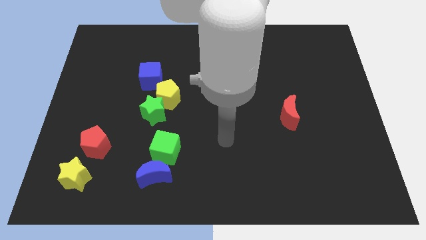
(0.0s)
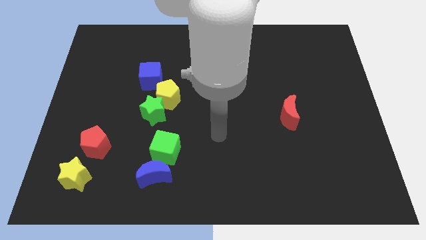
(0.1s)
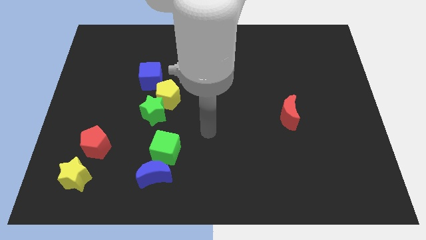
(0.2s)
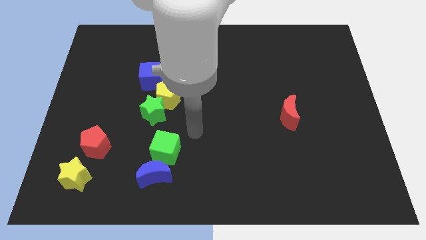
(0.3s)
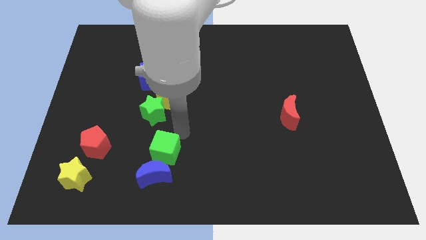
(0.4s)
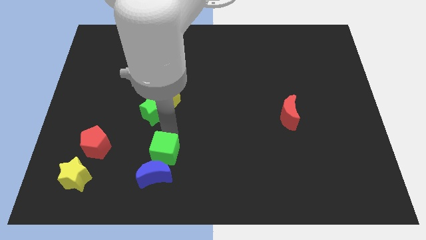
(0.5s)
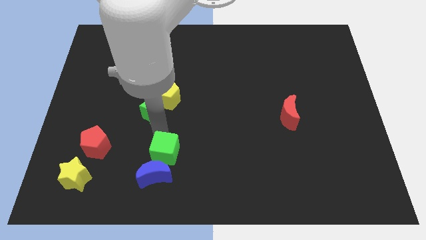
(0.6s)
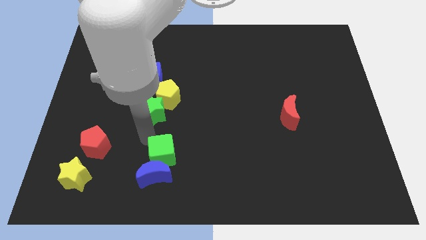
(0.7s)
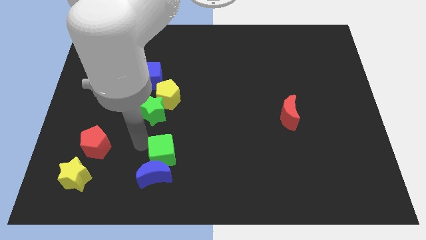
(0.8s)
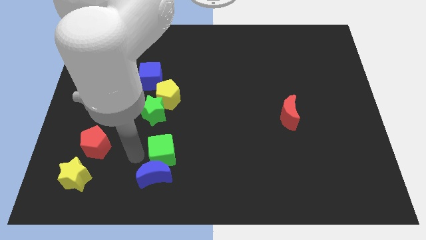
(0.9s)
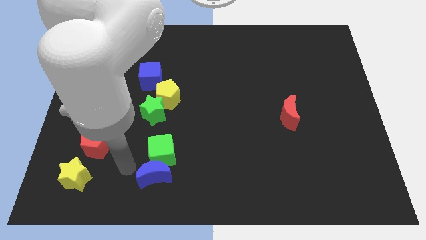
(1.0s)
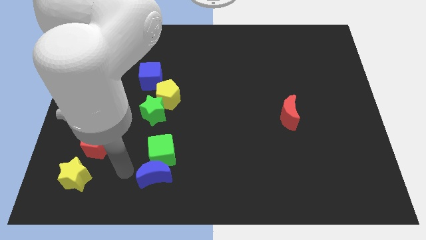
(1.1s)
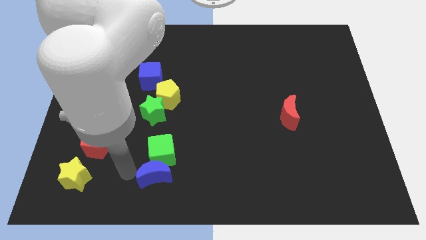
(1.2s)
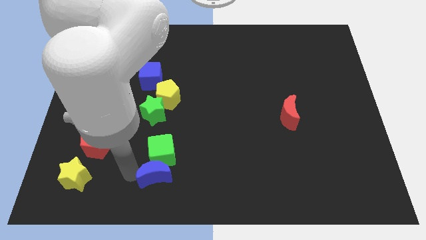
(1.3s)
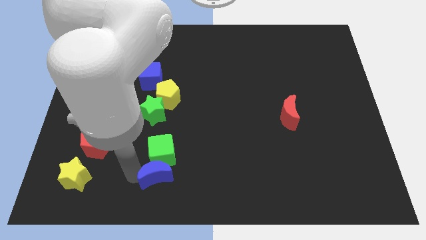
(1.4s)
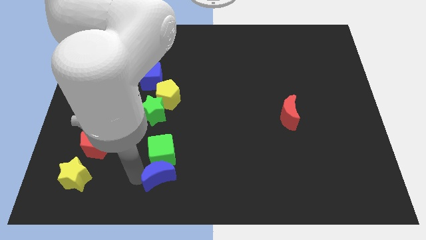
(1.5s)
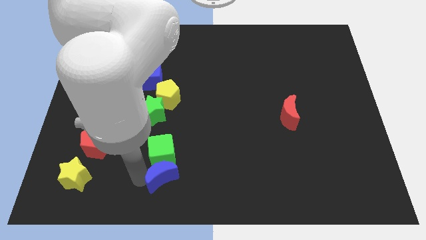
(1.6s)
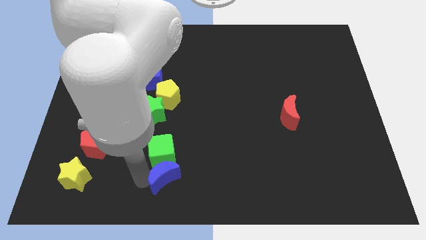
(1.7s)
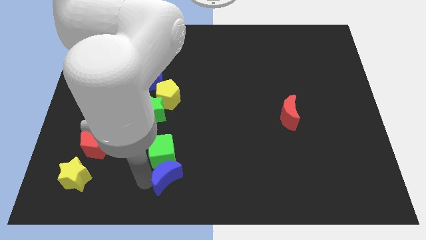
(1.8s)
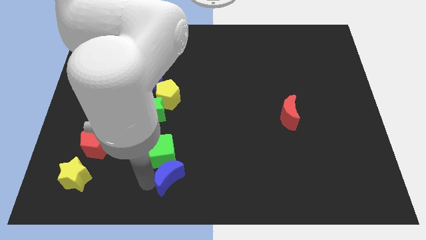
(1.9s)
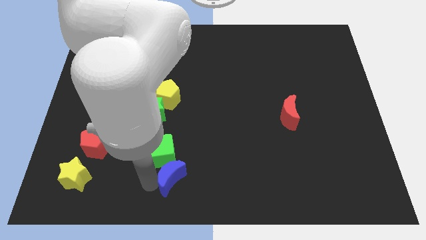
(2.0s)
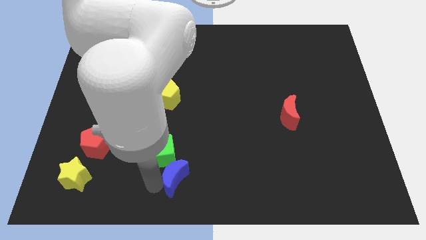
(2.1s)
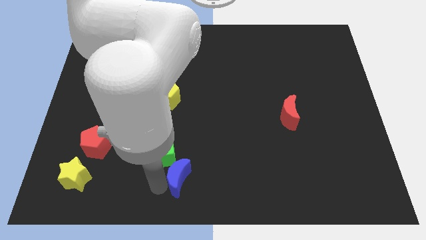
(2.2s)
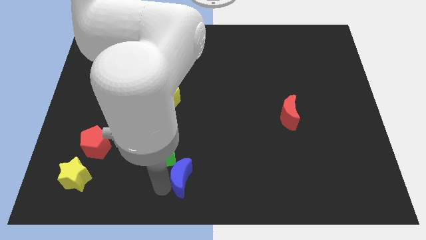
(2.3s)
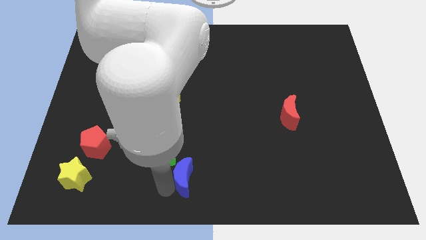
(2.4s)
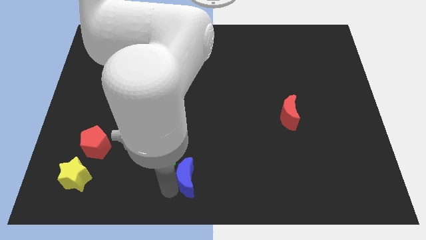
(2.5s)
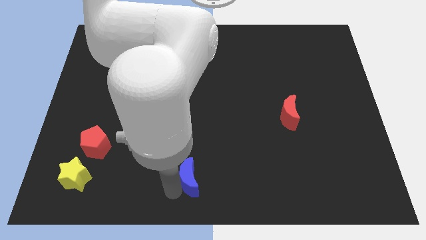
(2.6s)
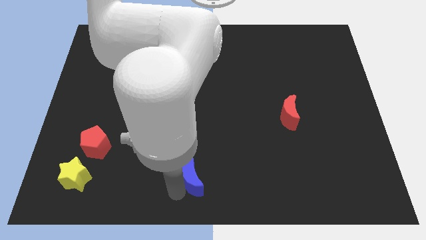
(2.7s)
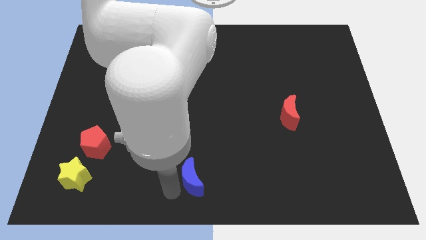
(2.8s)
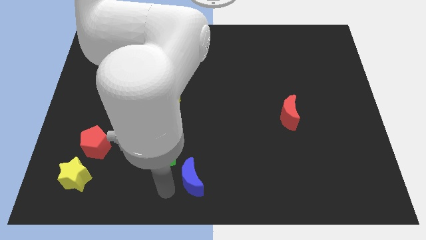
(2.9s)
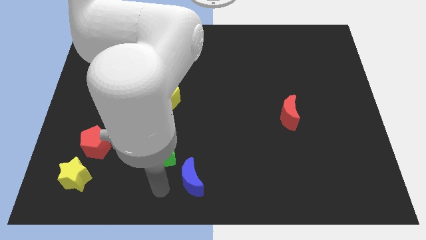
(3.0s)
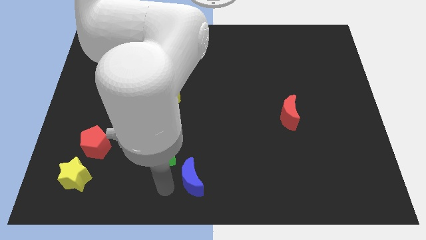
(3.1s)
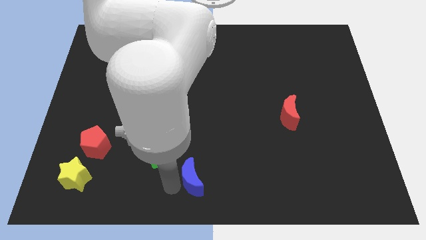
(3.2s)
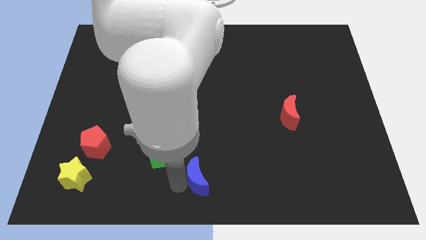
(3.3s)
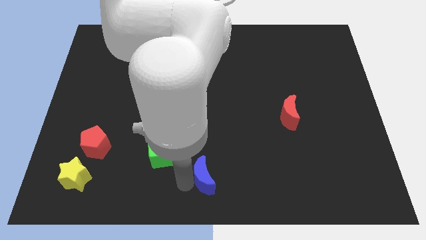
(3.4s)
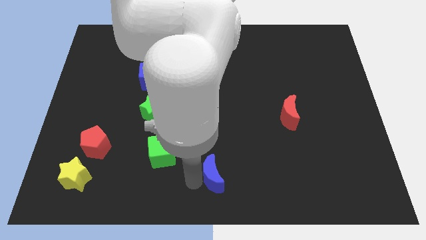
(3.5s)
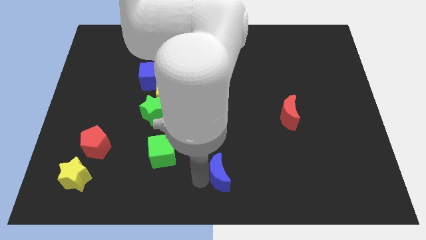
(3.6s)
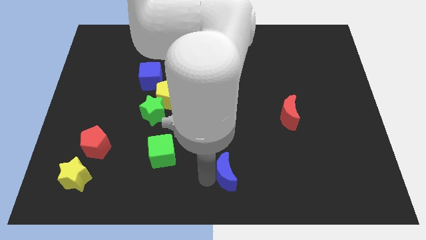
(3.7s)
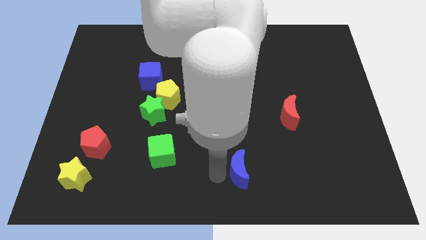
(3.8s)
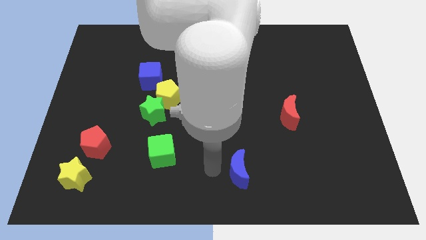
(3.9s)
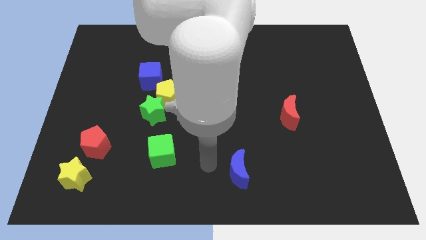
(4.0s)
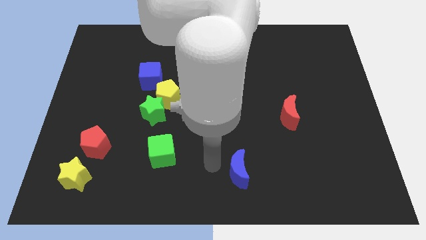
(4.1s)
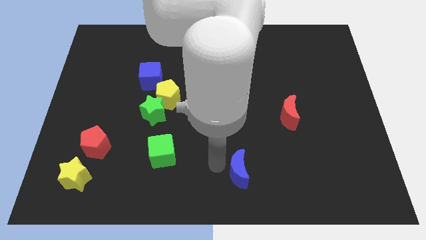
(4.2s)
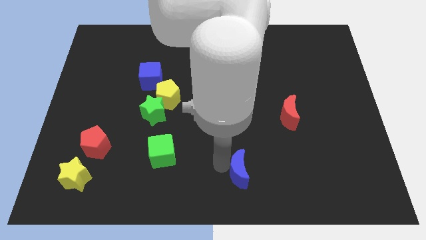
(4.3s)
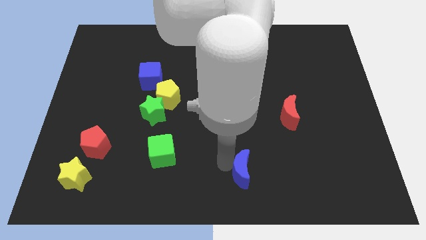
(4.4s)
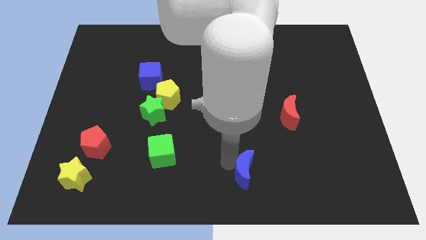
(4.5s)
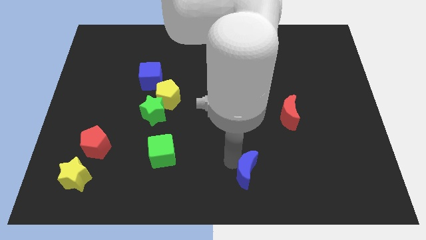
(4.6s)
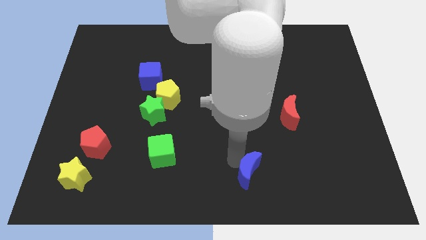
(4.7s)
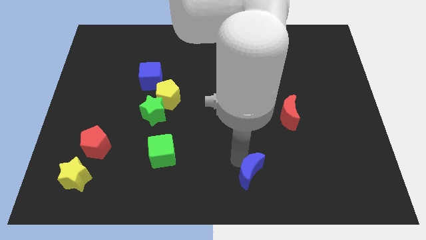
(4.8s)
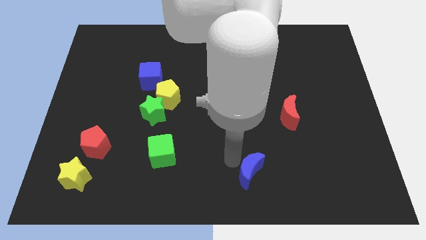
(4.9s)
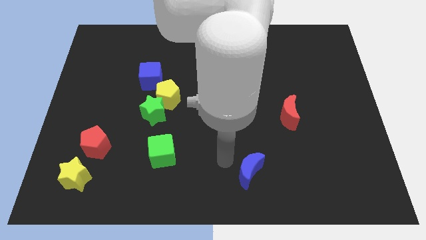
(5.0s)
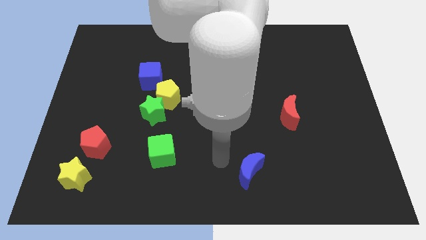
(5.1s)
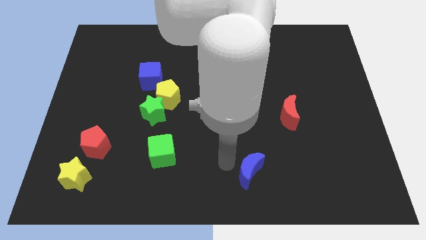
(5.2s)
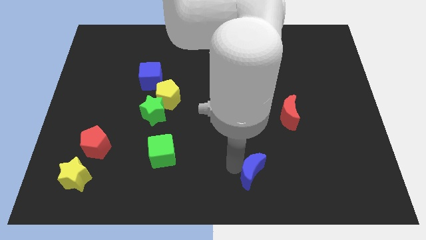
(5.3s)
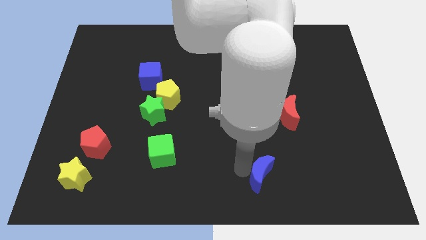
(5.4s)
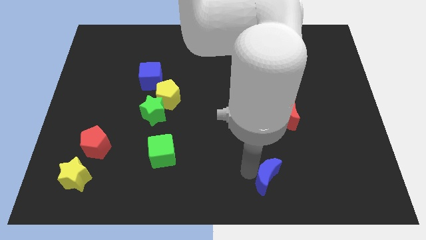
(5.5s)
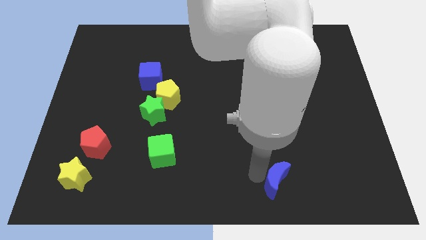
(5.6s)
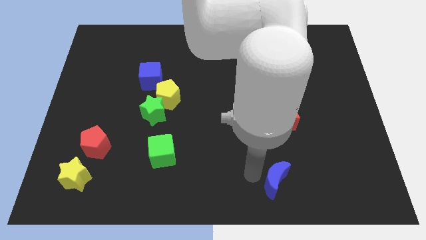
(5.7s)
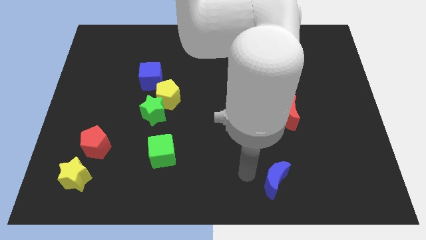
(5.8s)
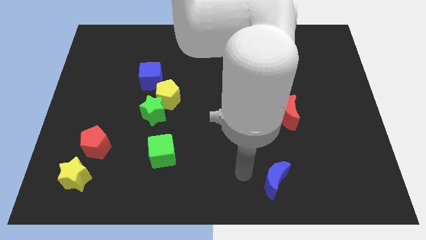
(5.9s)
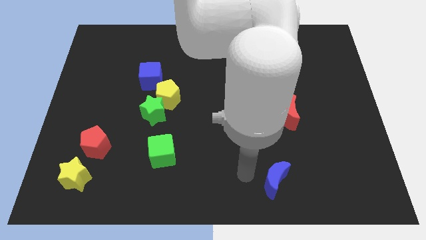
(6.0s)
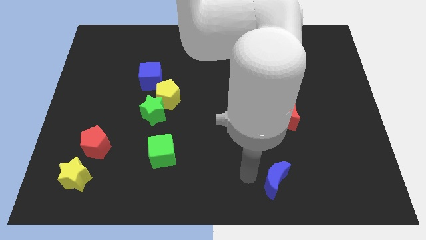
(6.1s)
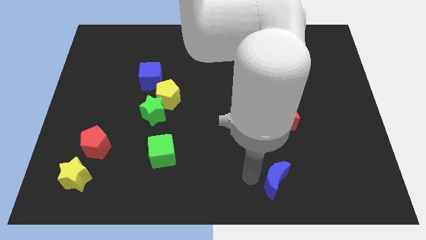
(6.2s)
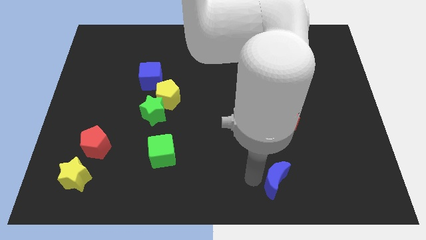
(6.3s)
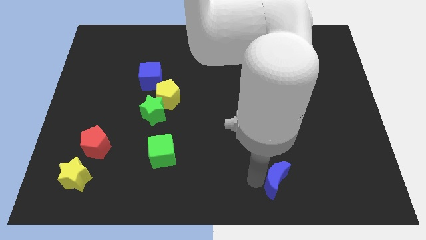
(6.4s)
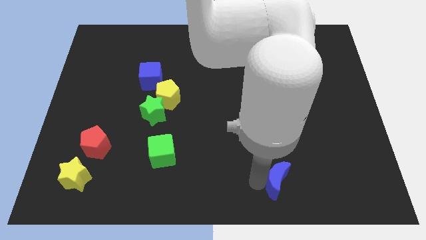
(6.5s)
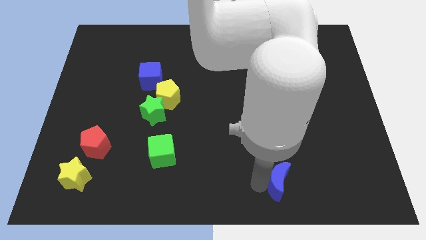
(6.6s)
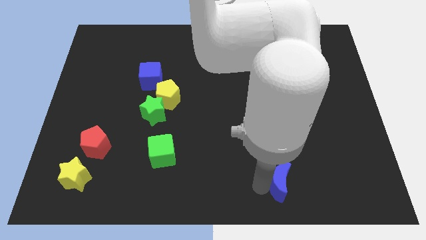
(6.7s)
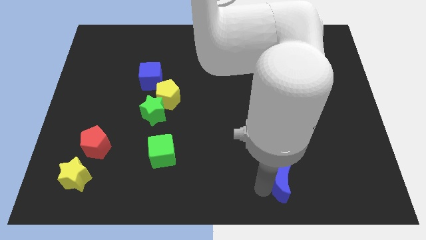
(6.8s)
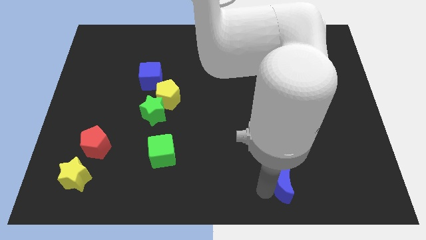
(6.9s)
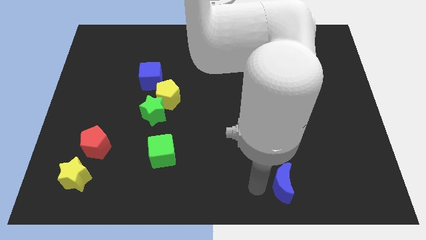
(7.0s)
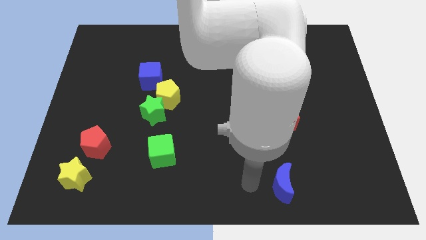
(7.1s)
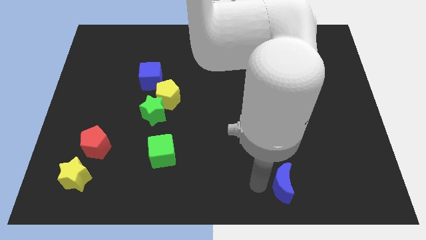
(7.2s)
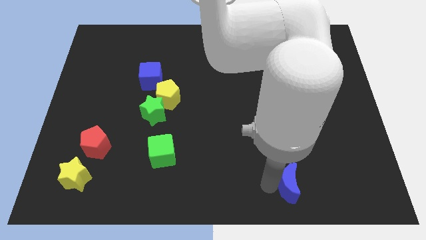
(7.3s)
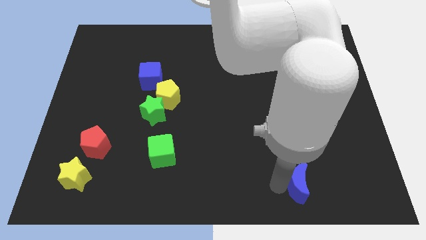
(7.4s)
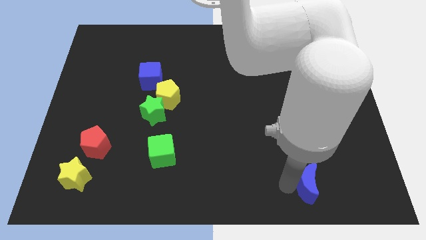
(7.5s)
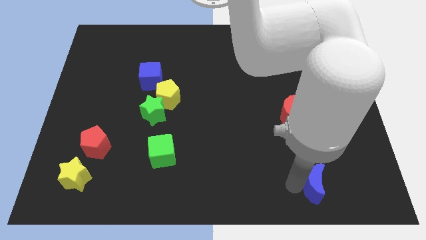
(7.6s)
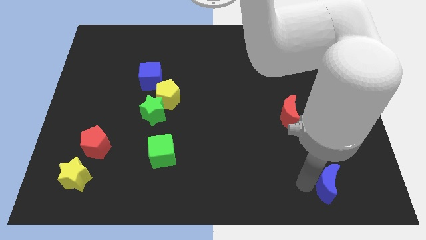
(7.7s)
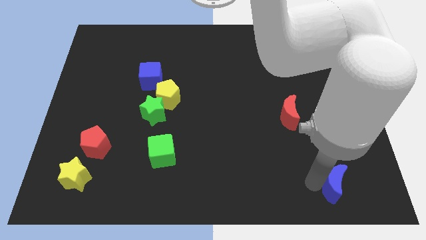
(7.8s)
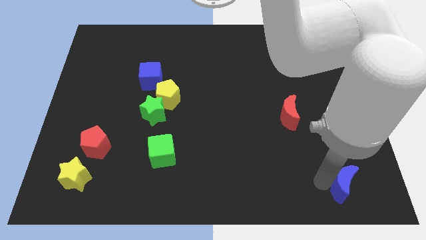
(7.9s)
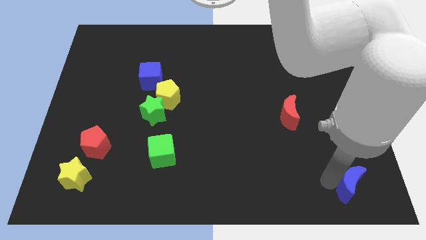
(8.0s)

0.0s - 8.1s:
move the blue moon to the bottom right
